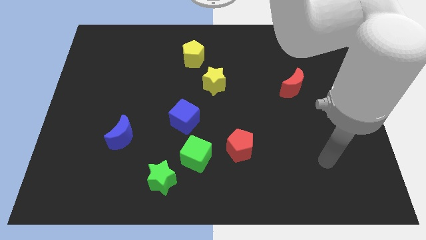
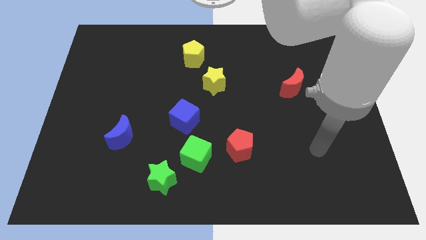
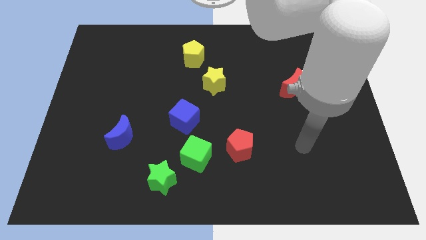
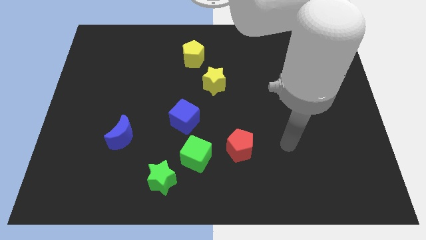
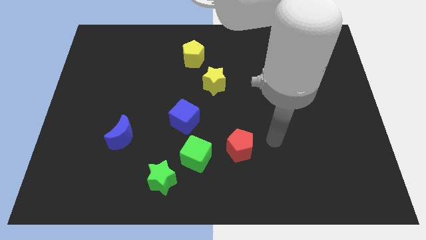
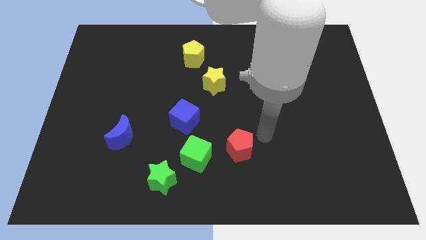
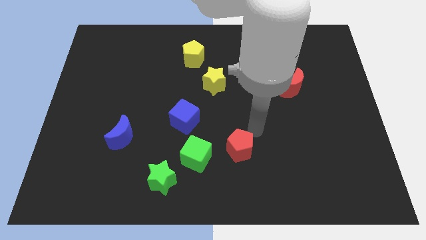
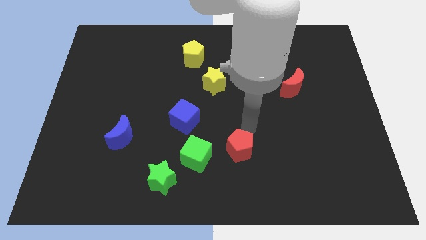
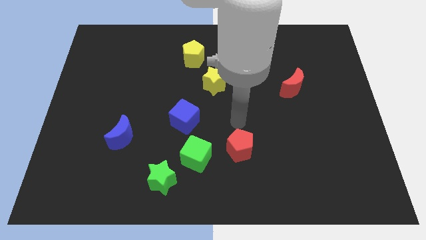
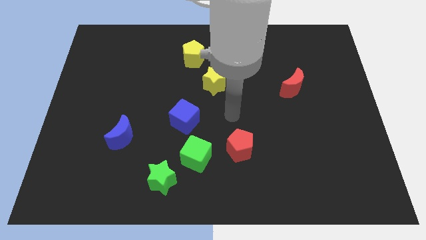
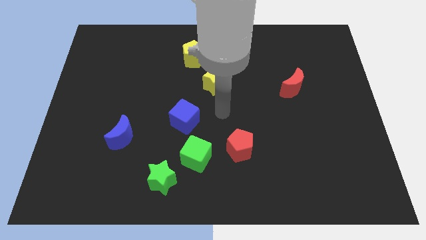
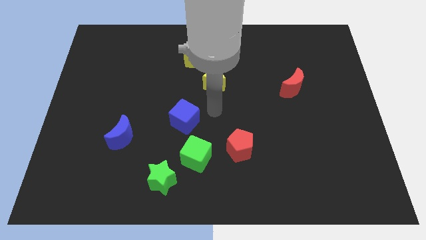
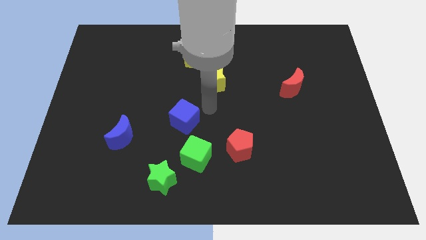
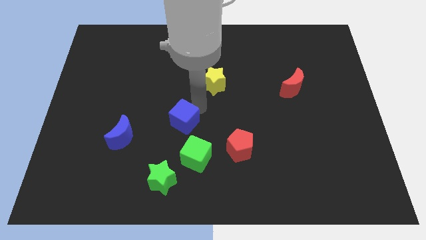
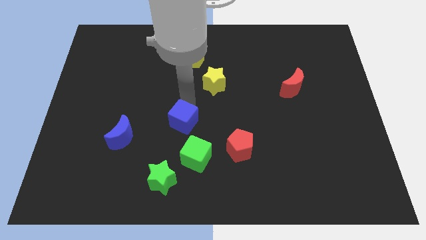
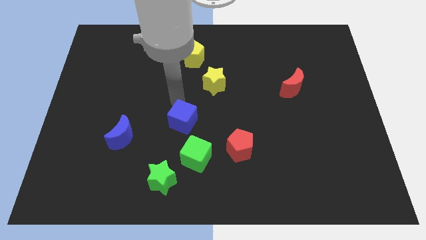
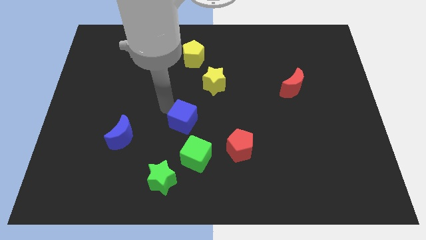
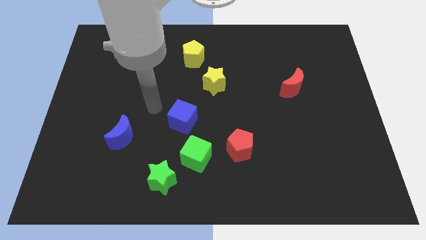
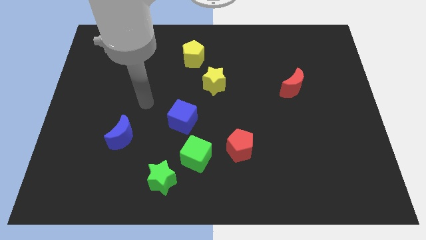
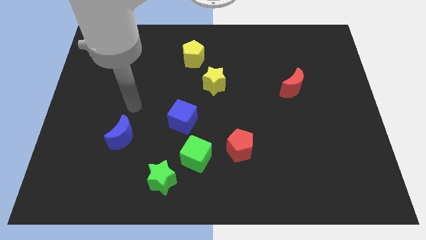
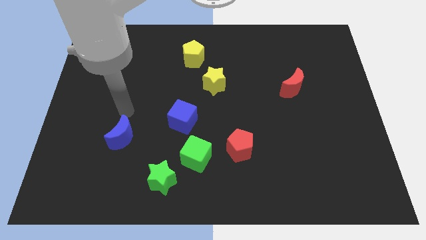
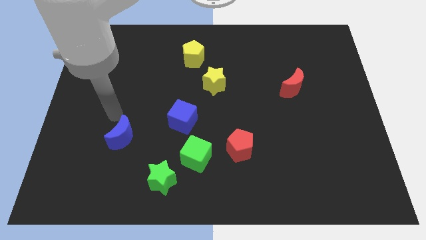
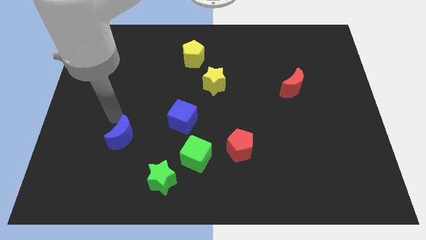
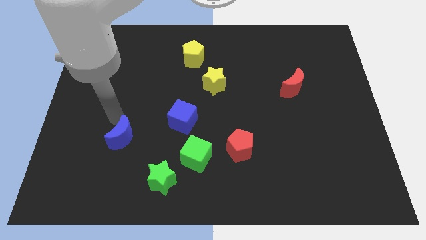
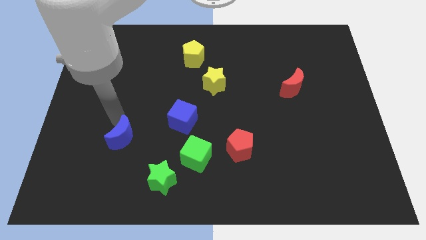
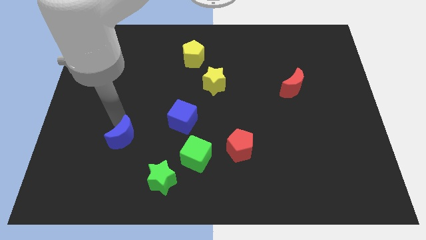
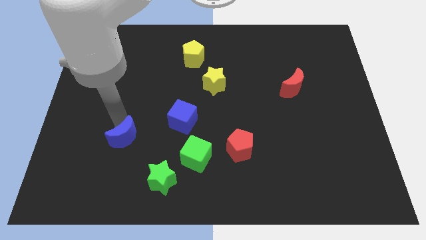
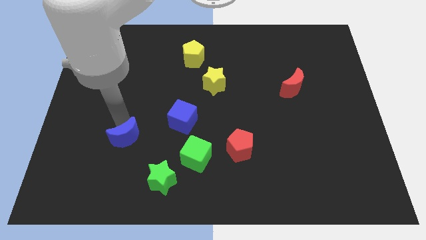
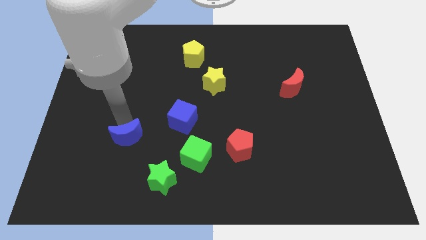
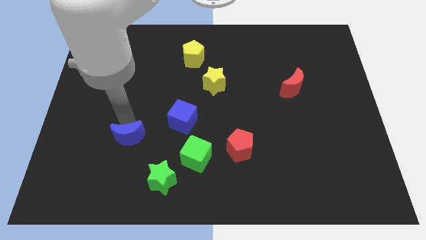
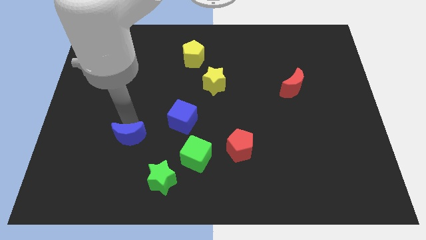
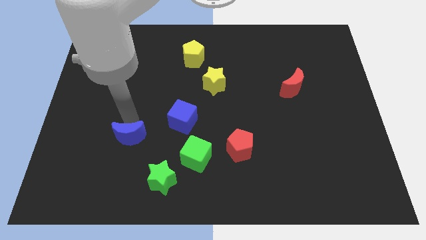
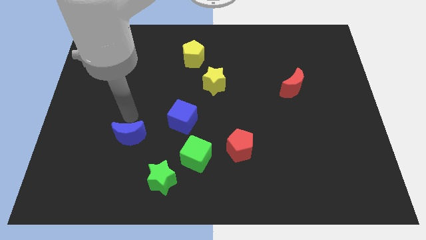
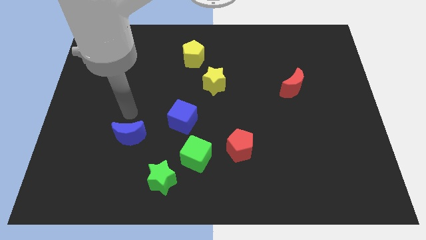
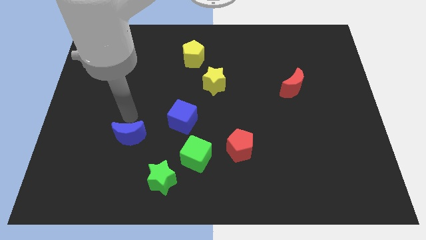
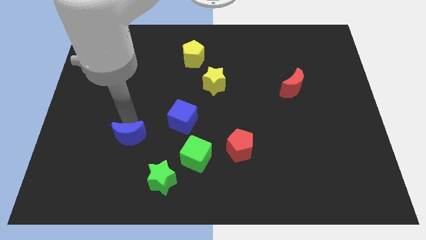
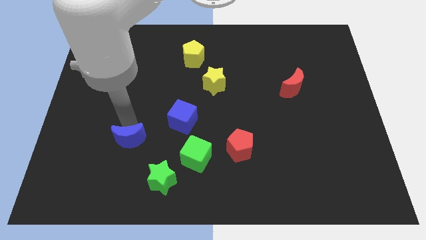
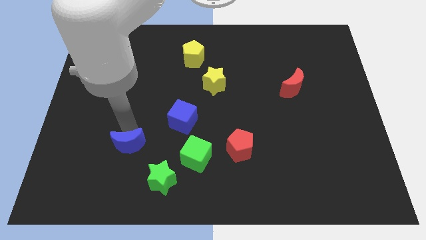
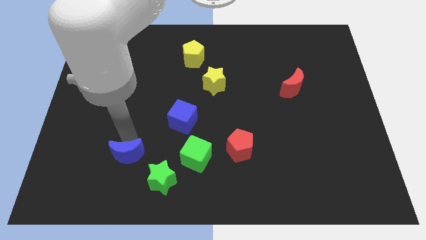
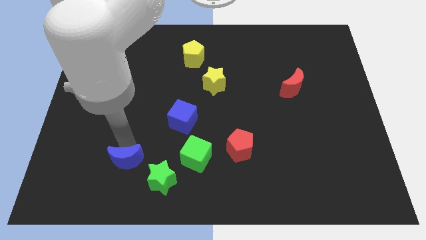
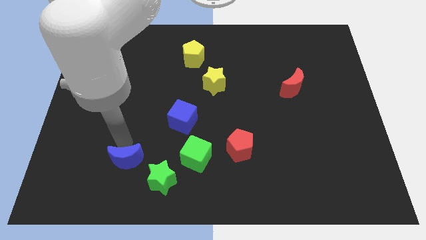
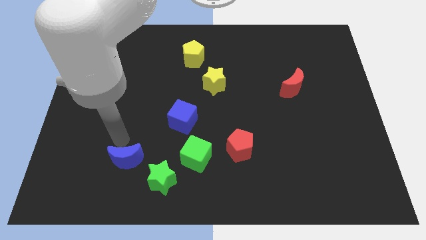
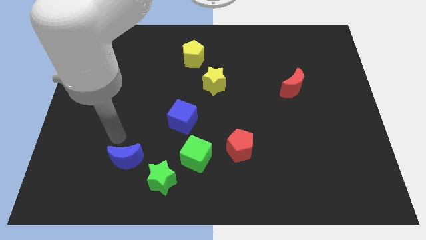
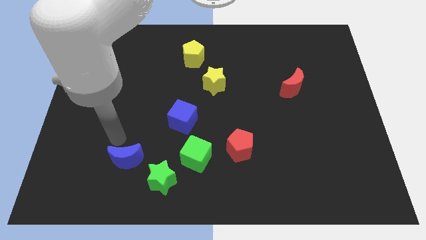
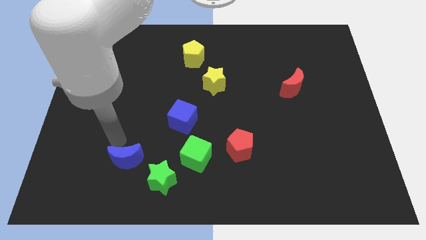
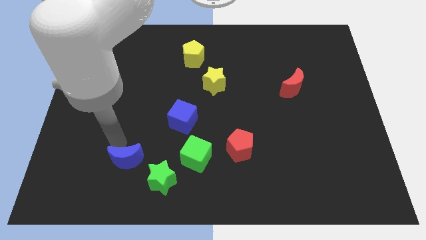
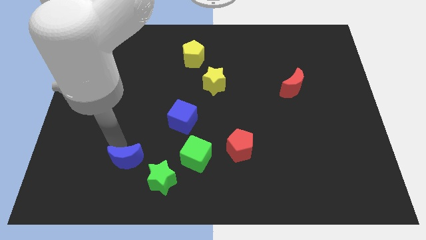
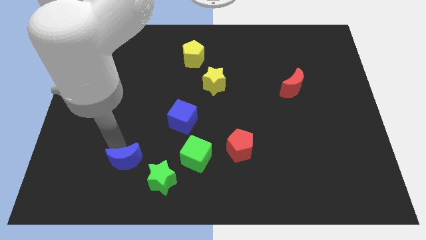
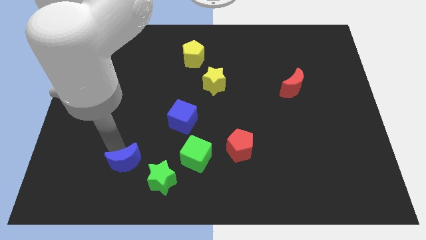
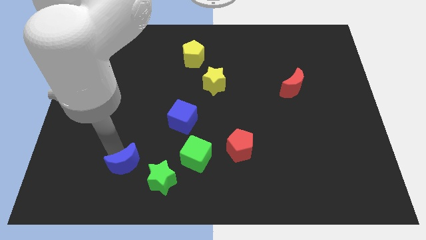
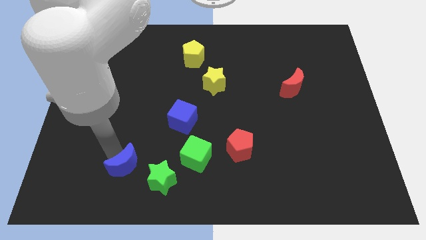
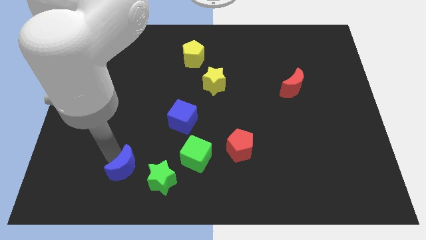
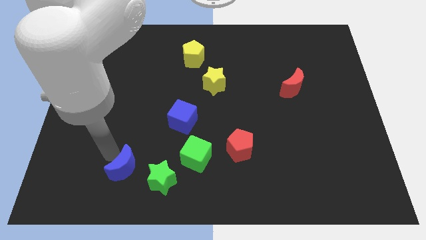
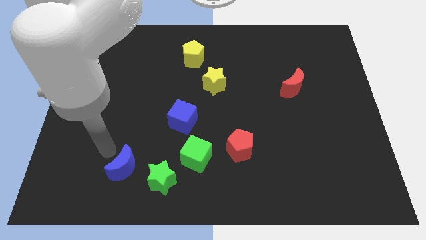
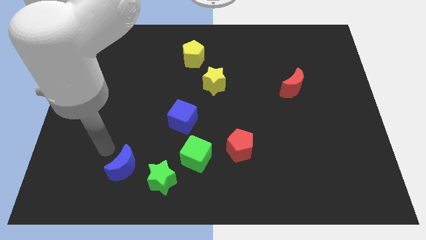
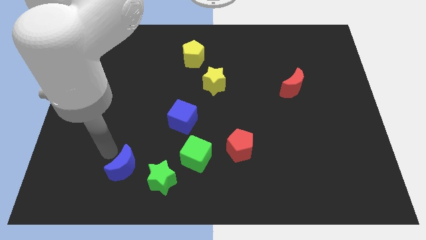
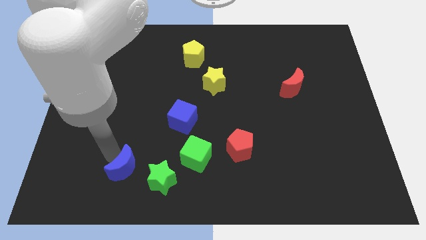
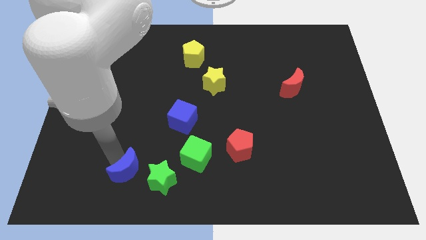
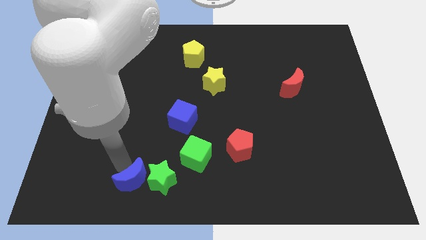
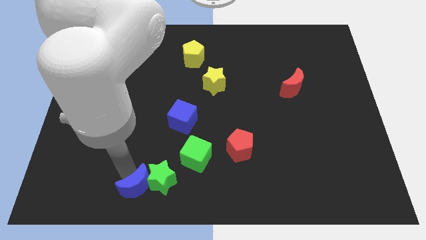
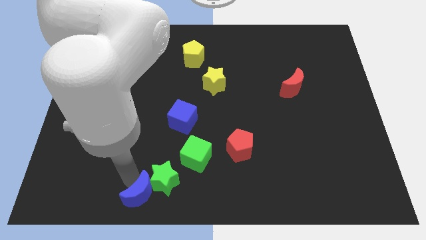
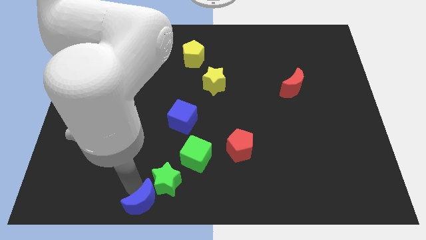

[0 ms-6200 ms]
push the blue moon to the bottom side

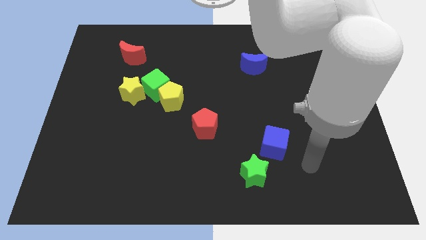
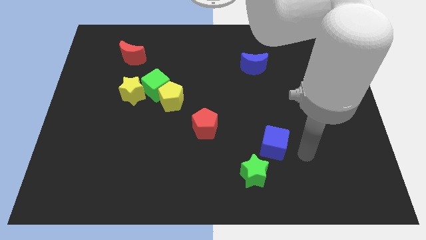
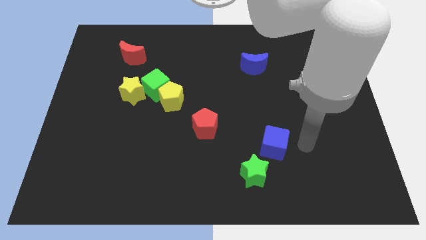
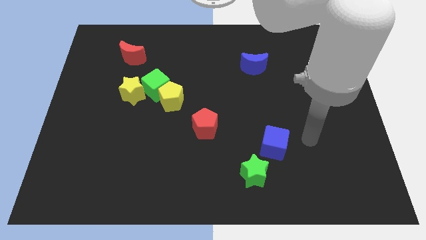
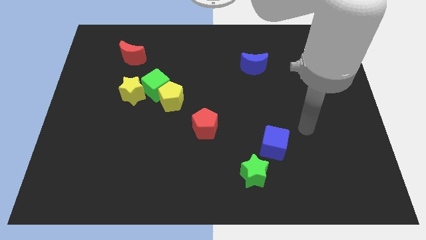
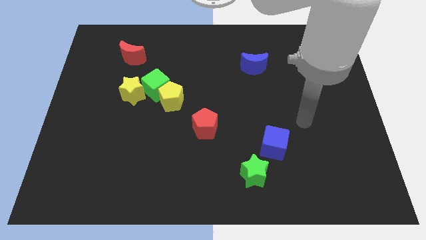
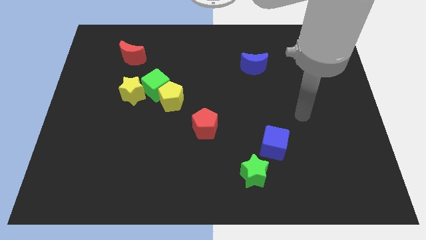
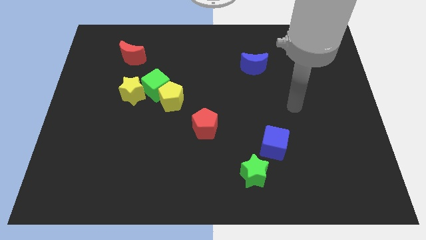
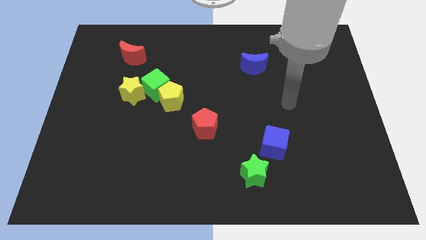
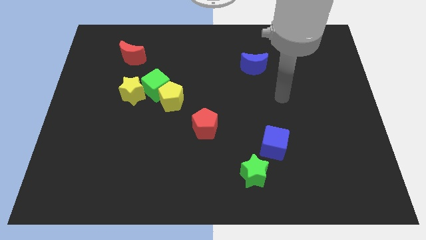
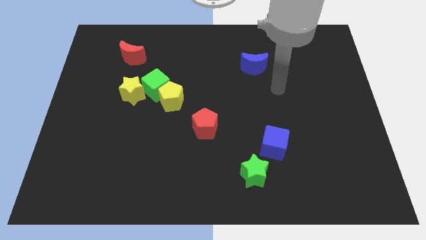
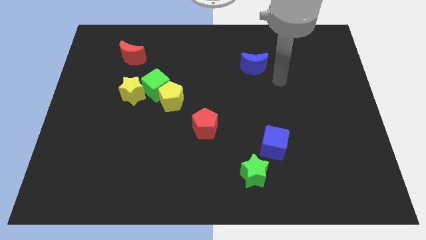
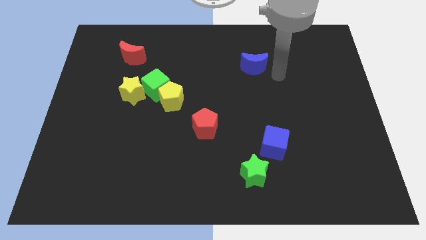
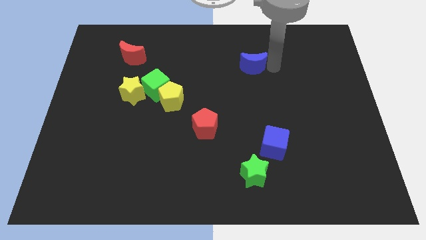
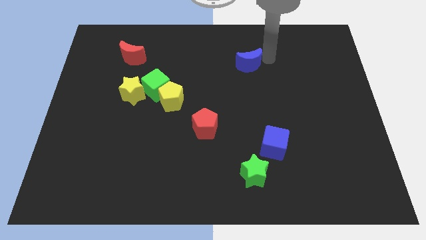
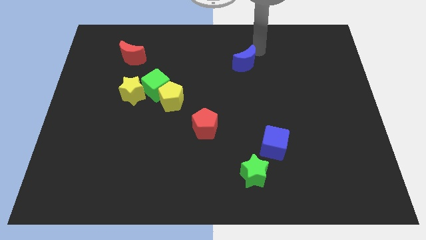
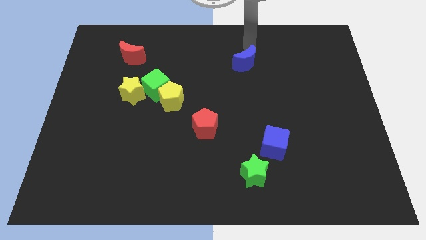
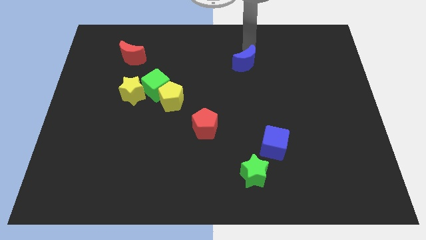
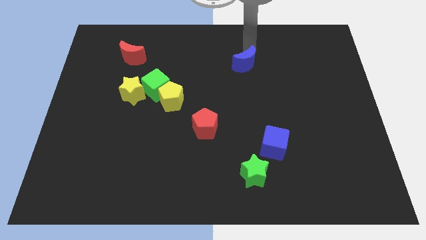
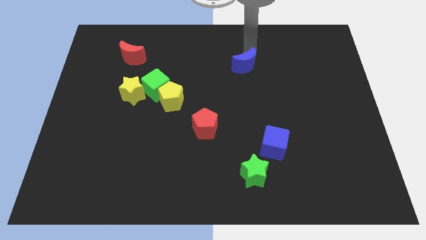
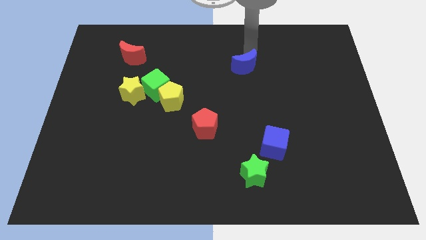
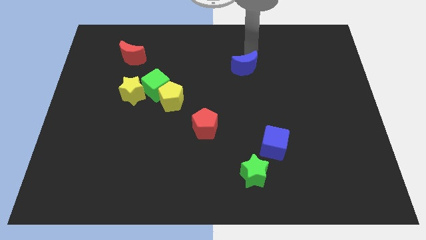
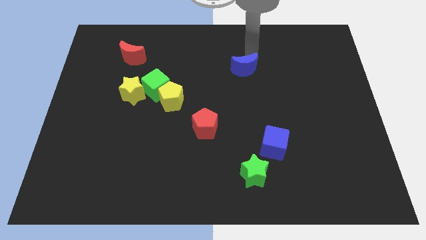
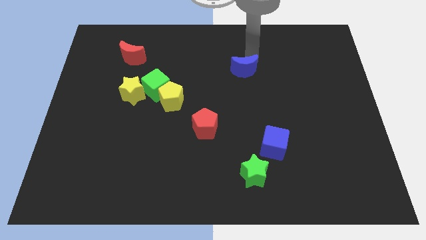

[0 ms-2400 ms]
push the blue moon to the middle
